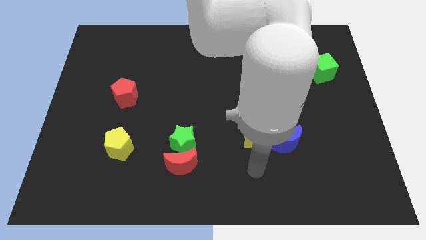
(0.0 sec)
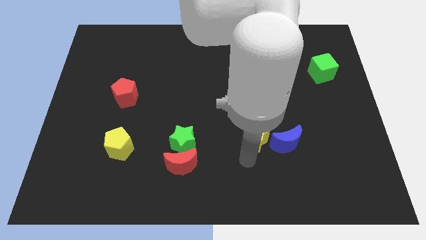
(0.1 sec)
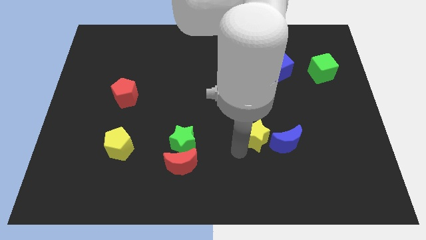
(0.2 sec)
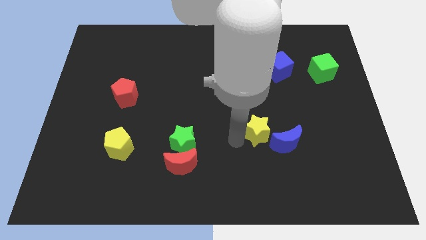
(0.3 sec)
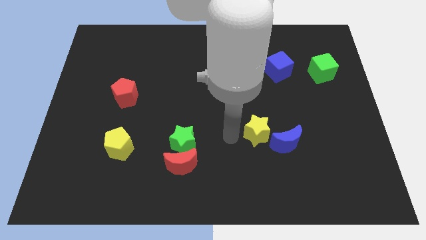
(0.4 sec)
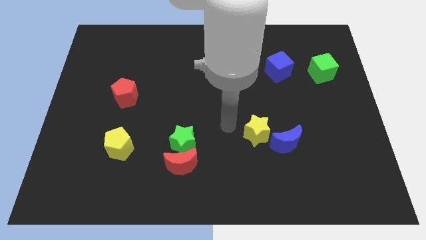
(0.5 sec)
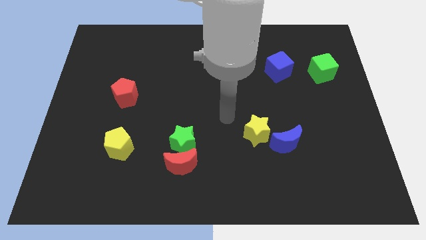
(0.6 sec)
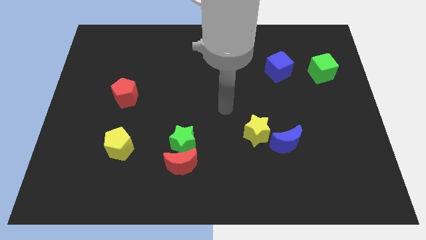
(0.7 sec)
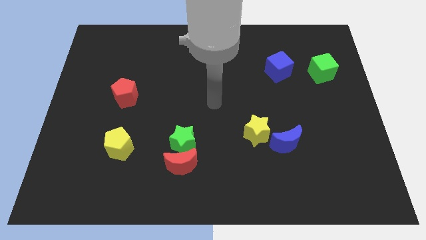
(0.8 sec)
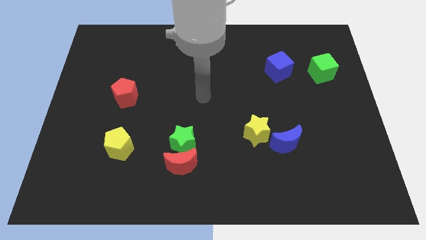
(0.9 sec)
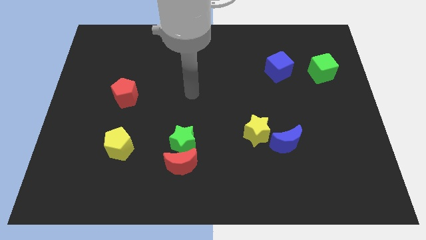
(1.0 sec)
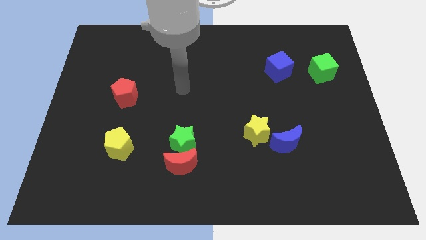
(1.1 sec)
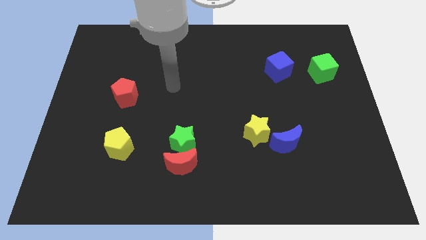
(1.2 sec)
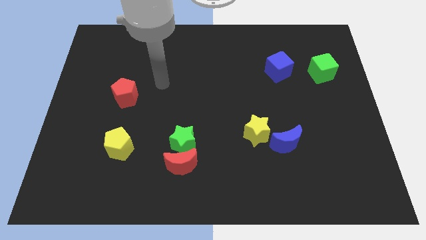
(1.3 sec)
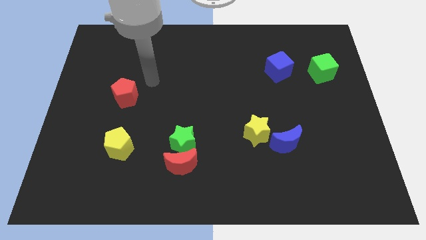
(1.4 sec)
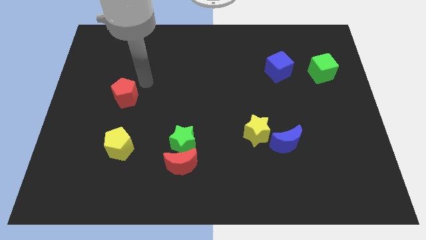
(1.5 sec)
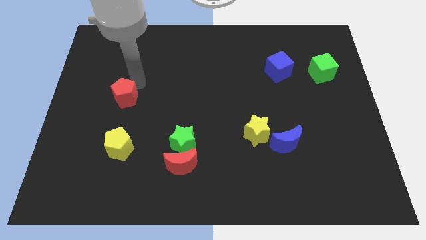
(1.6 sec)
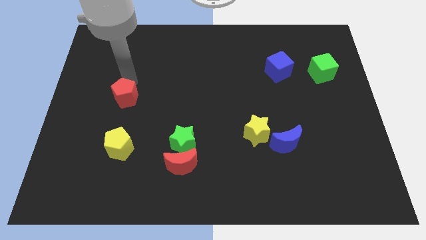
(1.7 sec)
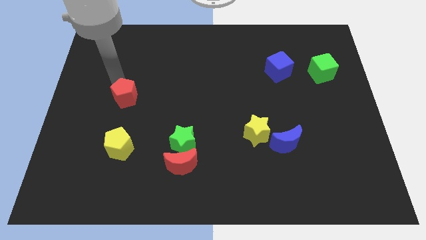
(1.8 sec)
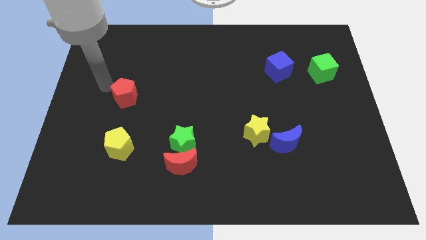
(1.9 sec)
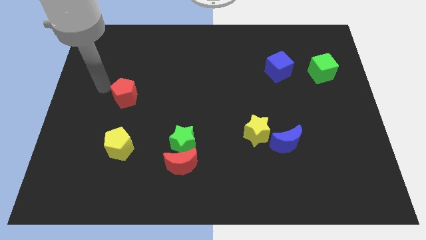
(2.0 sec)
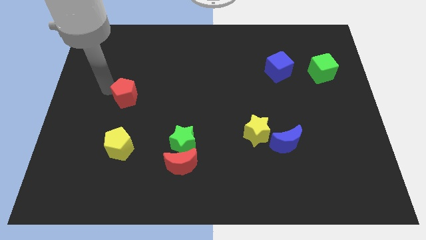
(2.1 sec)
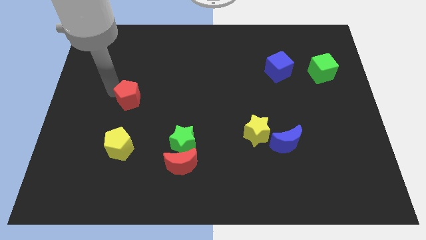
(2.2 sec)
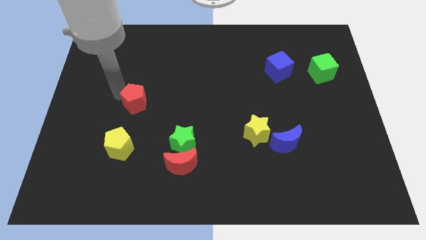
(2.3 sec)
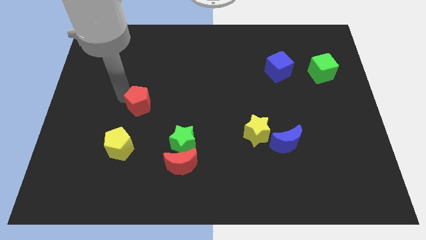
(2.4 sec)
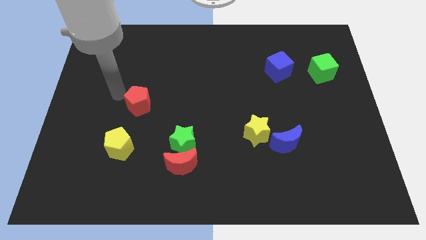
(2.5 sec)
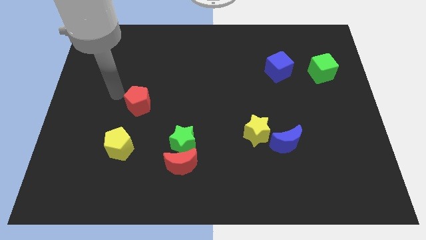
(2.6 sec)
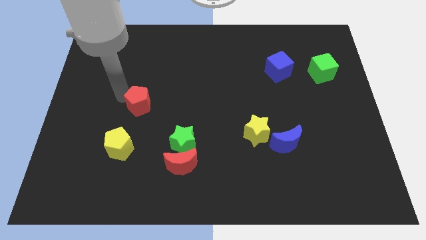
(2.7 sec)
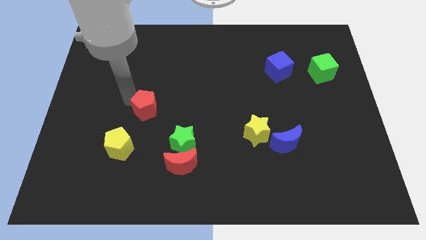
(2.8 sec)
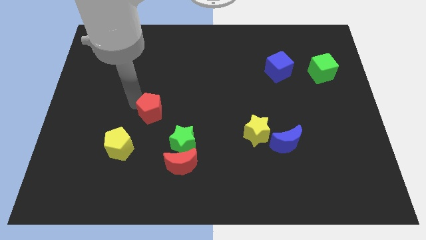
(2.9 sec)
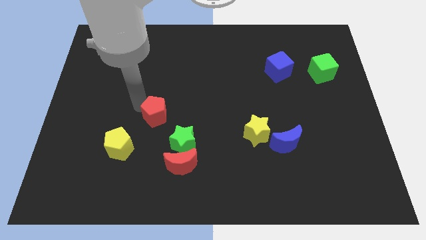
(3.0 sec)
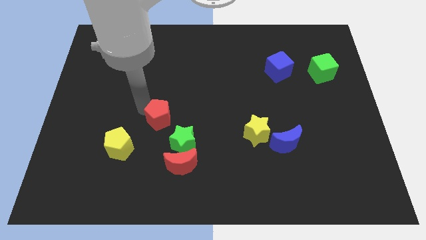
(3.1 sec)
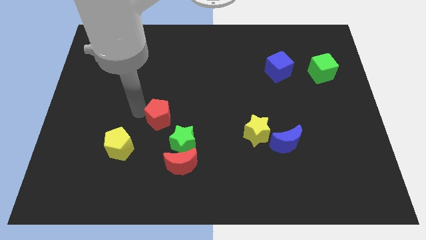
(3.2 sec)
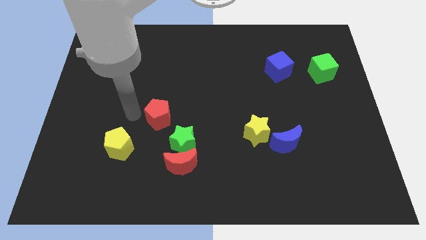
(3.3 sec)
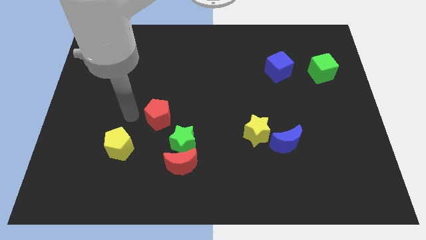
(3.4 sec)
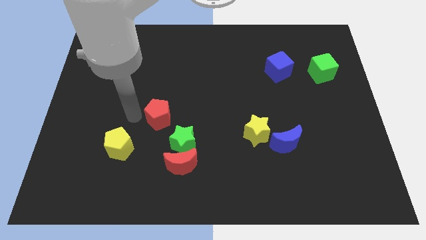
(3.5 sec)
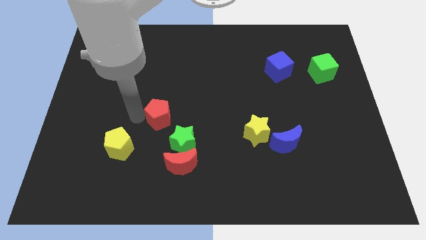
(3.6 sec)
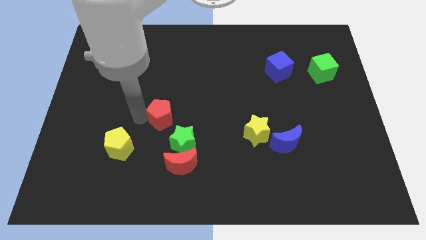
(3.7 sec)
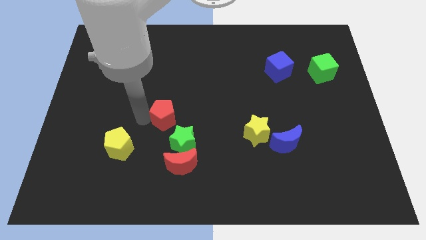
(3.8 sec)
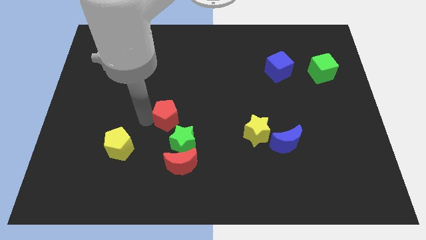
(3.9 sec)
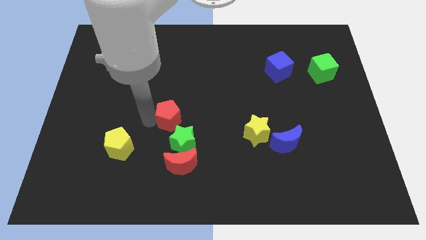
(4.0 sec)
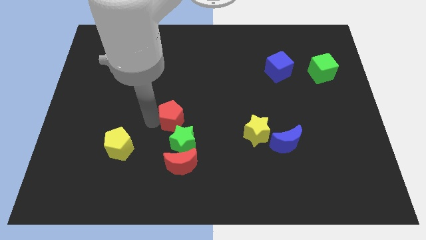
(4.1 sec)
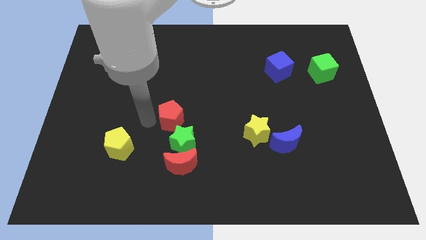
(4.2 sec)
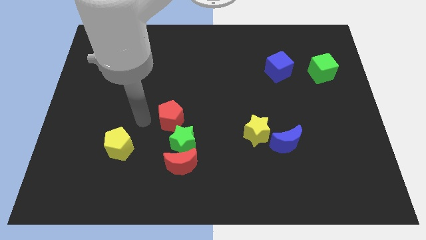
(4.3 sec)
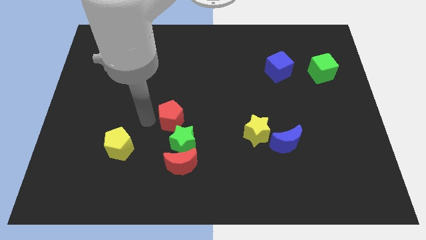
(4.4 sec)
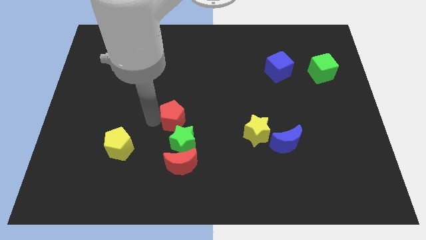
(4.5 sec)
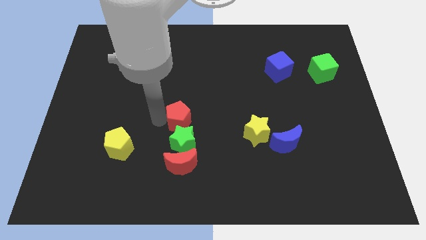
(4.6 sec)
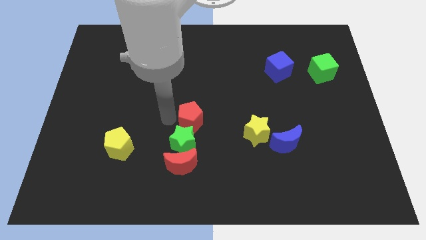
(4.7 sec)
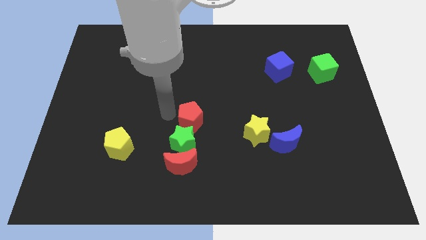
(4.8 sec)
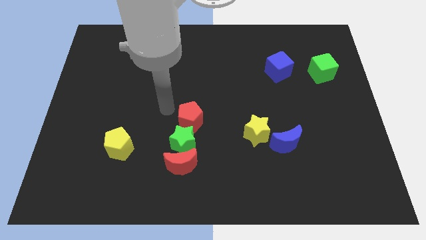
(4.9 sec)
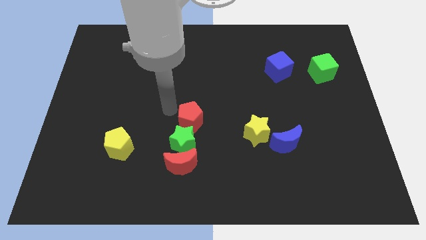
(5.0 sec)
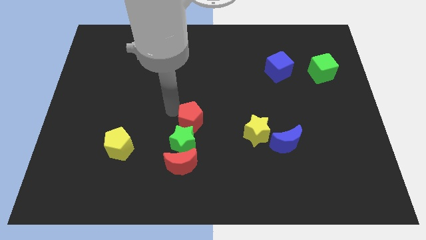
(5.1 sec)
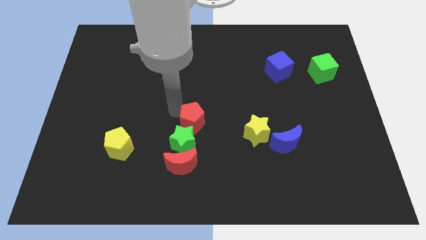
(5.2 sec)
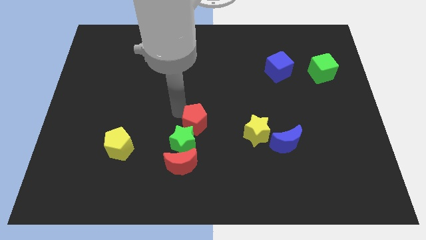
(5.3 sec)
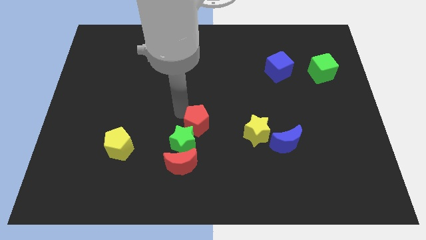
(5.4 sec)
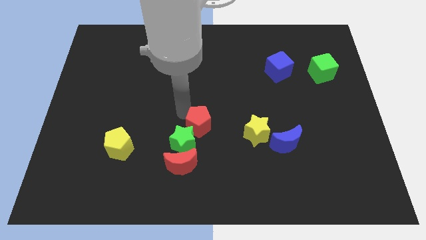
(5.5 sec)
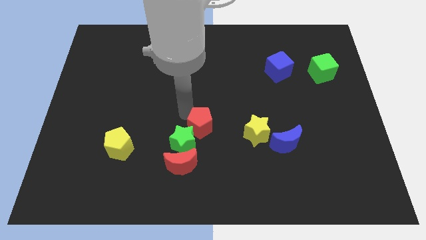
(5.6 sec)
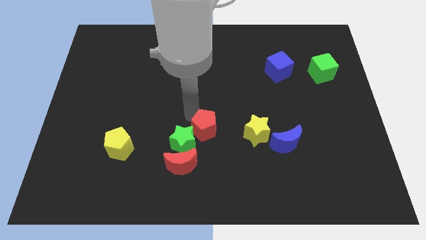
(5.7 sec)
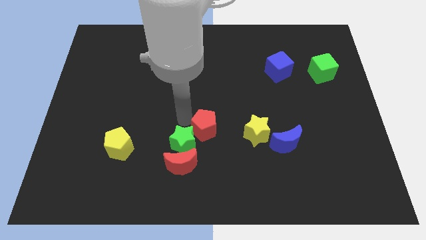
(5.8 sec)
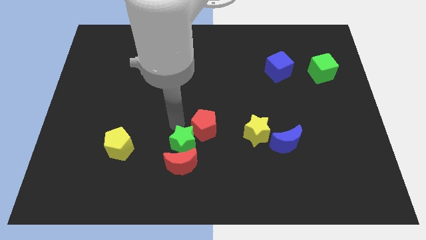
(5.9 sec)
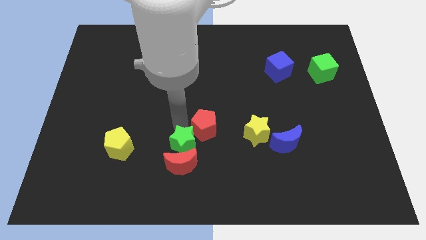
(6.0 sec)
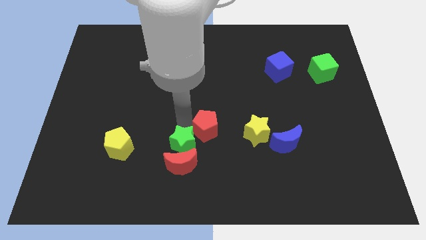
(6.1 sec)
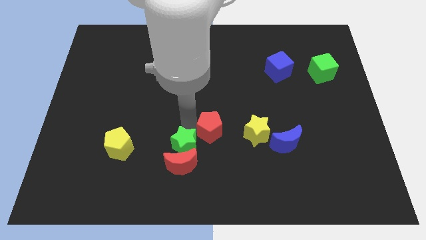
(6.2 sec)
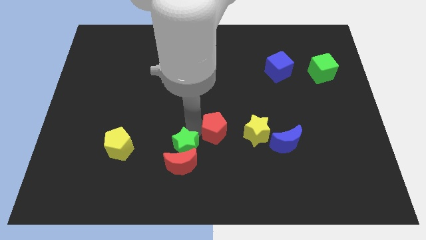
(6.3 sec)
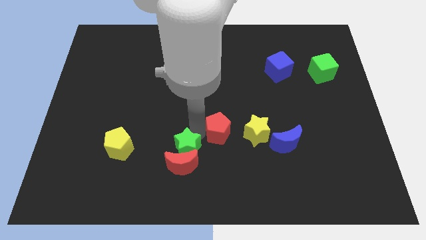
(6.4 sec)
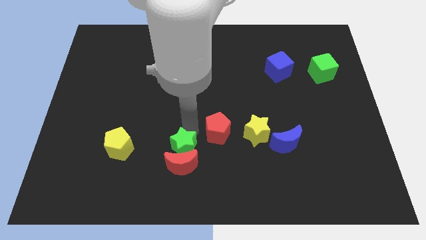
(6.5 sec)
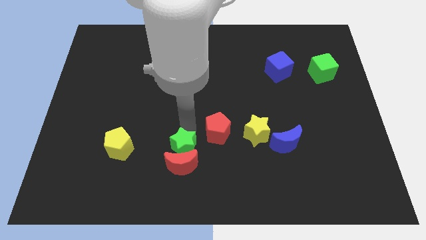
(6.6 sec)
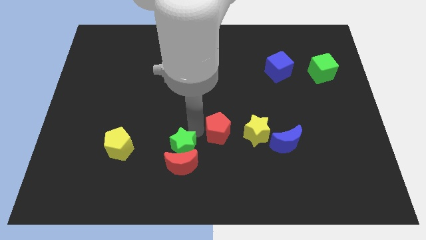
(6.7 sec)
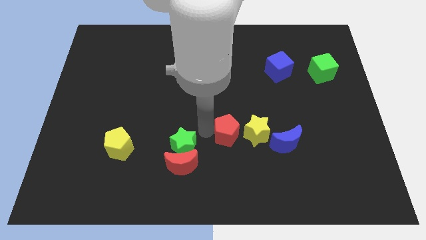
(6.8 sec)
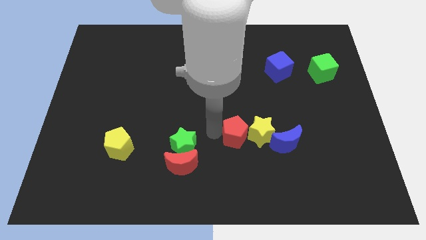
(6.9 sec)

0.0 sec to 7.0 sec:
put the red pentagon to the yellow star
